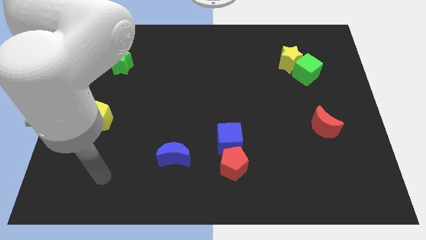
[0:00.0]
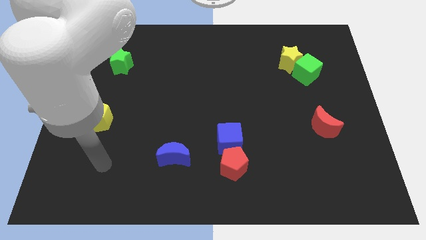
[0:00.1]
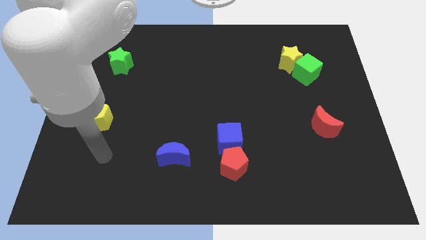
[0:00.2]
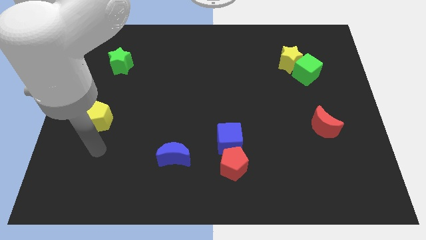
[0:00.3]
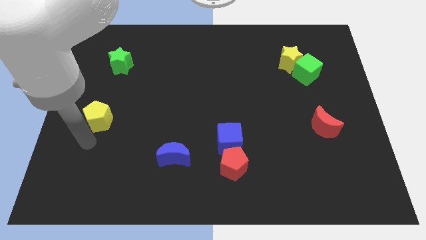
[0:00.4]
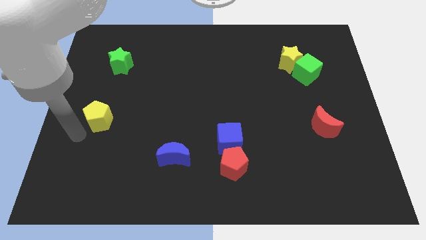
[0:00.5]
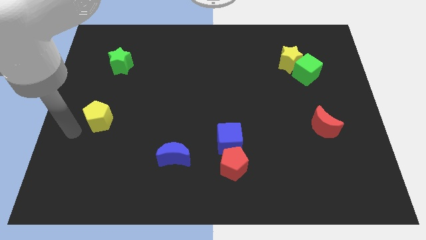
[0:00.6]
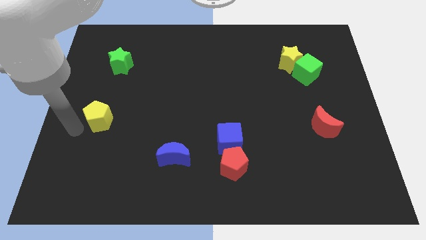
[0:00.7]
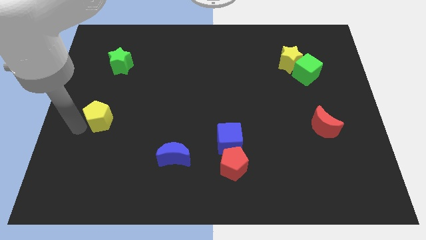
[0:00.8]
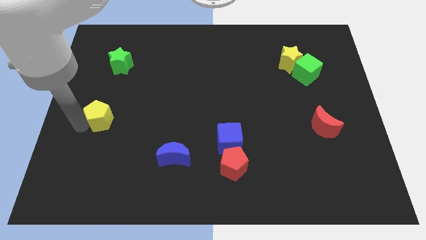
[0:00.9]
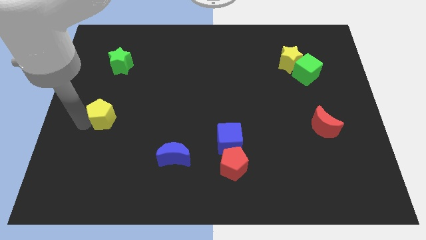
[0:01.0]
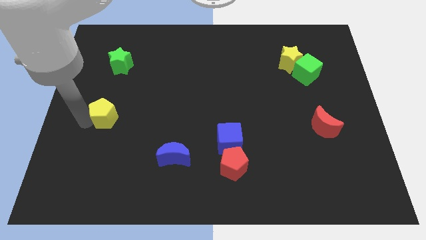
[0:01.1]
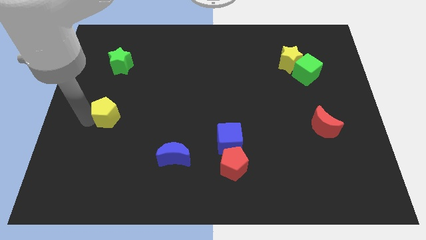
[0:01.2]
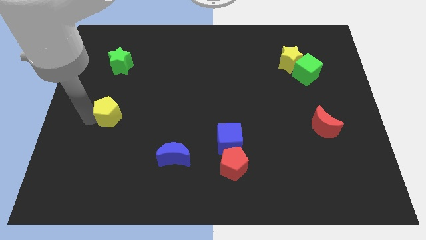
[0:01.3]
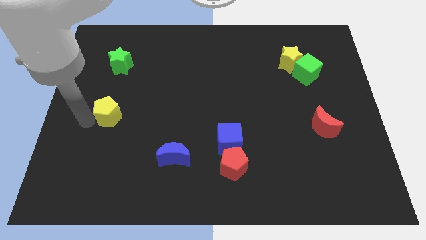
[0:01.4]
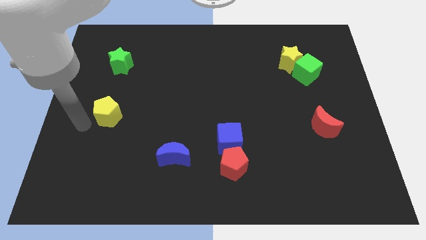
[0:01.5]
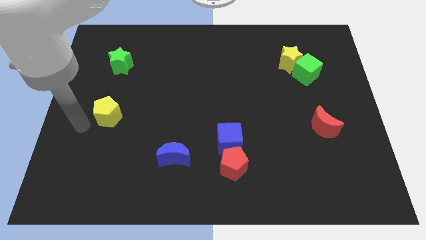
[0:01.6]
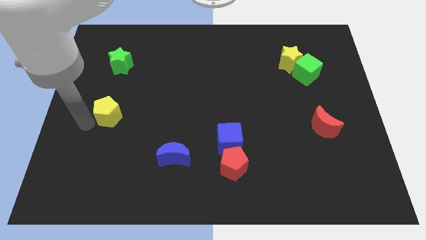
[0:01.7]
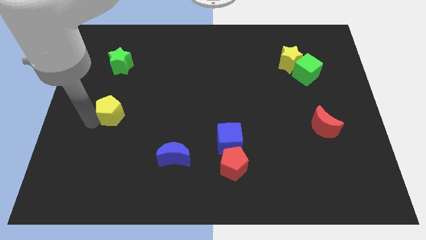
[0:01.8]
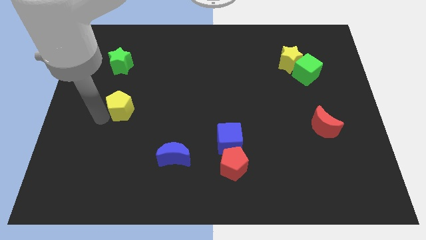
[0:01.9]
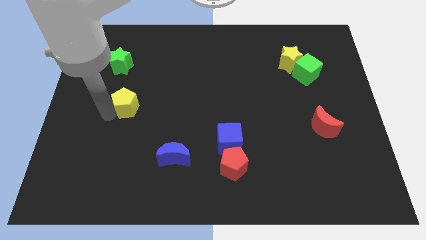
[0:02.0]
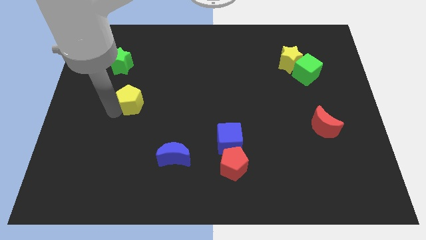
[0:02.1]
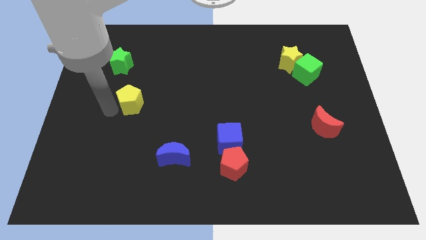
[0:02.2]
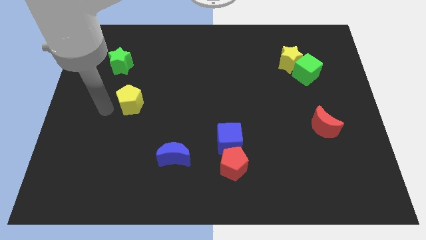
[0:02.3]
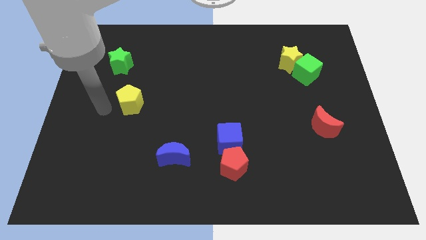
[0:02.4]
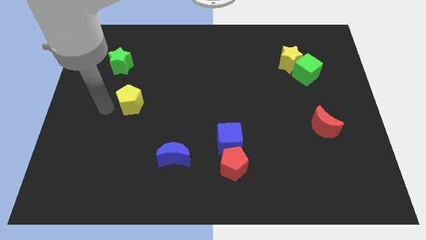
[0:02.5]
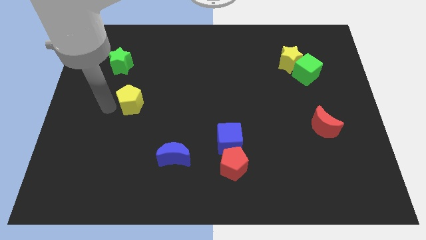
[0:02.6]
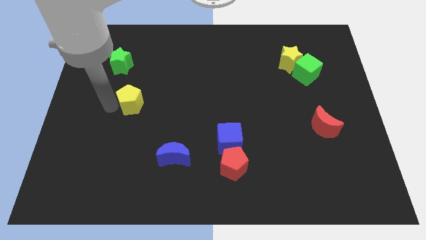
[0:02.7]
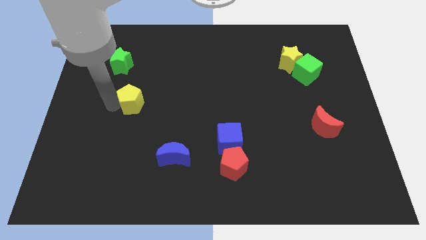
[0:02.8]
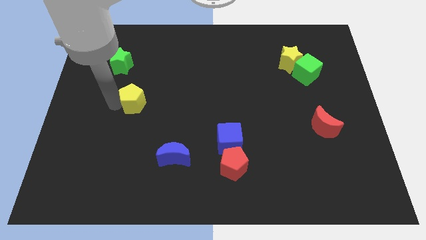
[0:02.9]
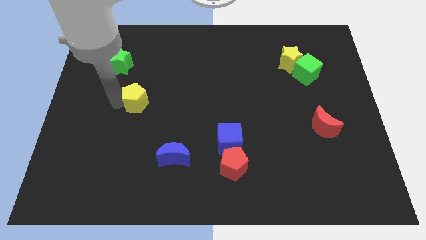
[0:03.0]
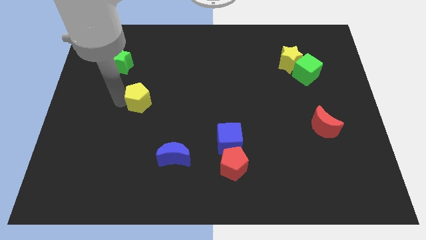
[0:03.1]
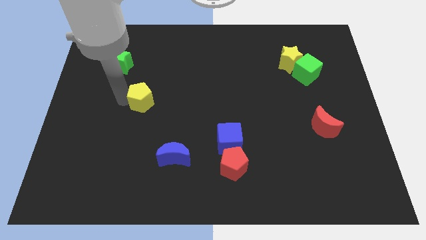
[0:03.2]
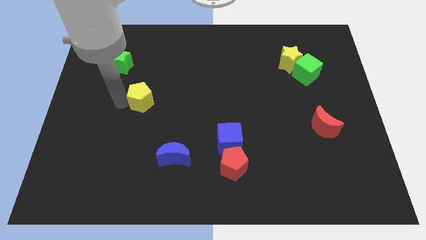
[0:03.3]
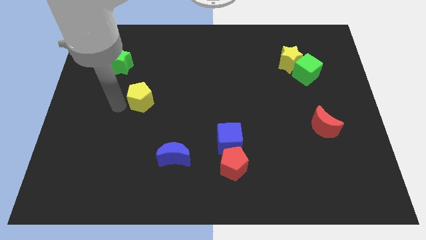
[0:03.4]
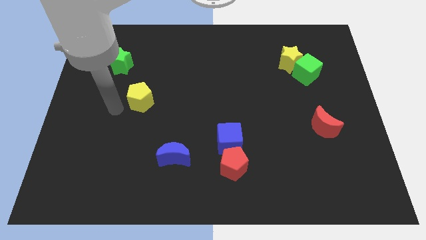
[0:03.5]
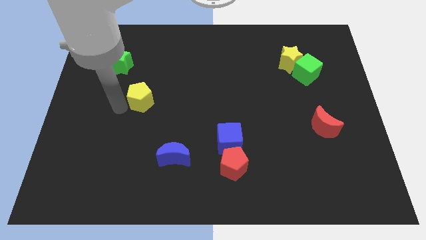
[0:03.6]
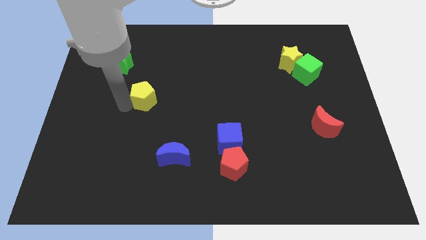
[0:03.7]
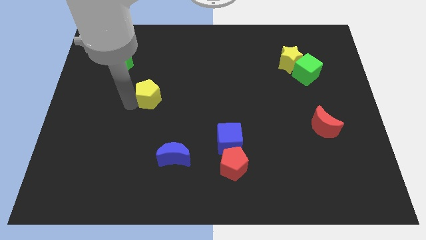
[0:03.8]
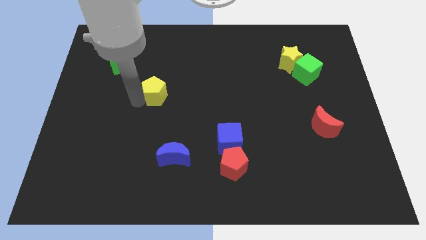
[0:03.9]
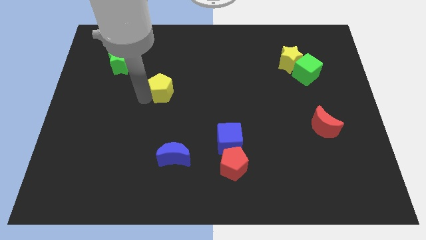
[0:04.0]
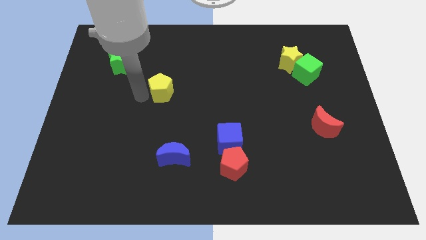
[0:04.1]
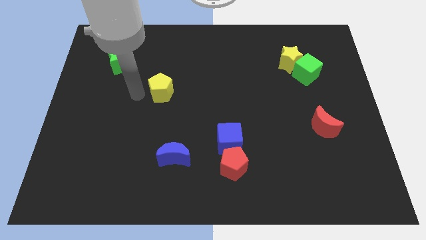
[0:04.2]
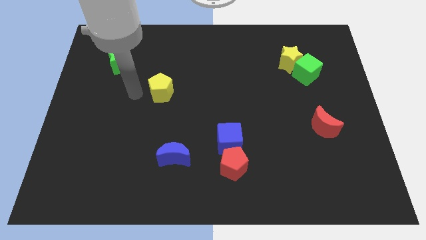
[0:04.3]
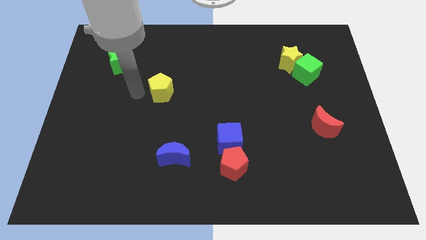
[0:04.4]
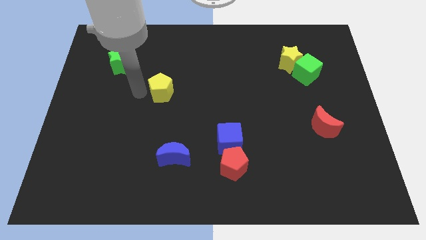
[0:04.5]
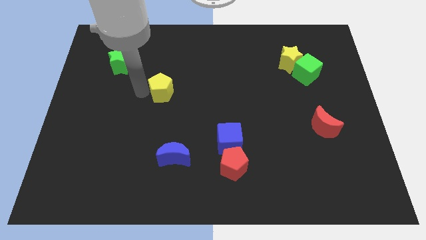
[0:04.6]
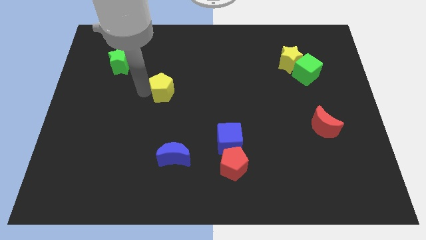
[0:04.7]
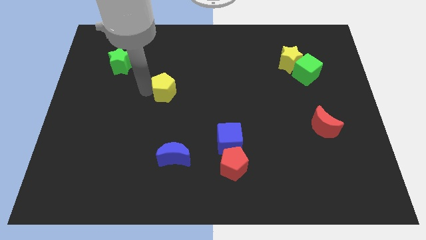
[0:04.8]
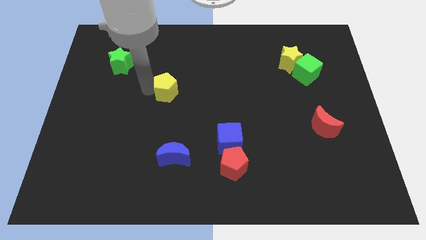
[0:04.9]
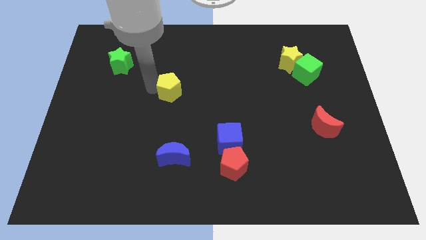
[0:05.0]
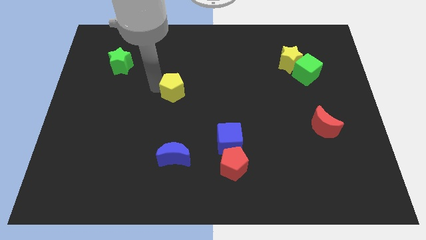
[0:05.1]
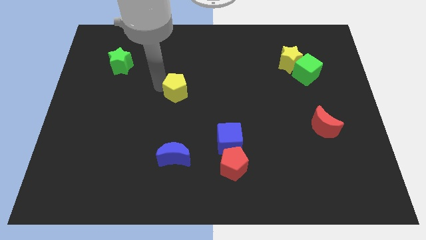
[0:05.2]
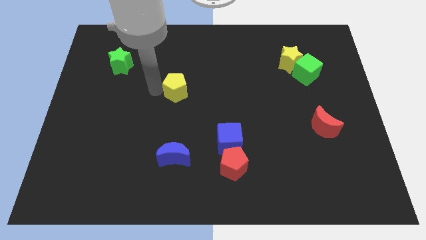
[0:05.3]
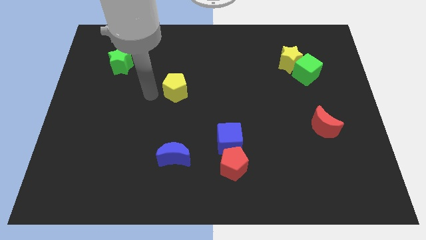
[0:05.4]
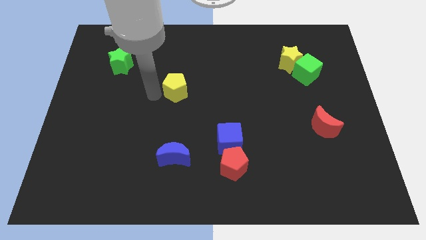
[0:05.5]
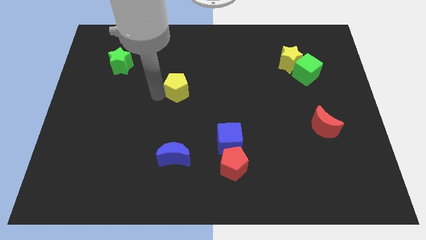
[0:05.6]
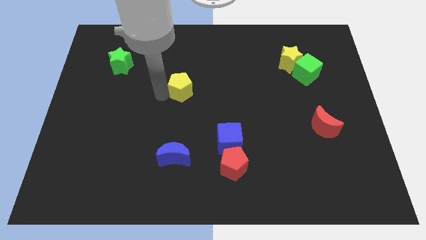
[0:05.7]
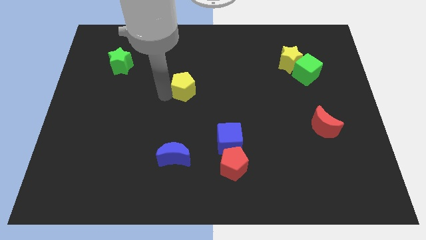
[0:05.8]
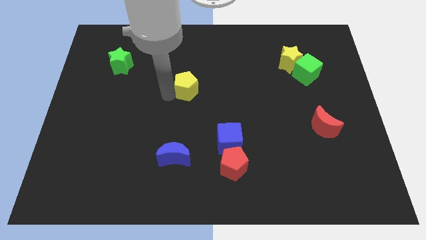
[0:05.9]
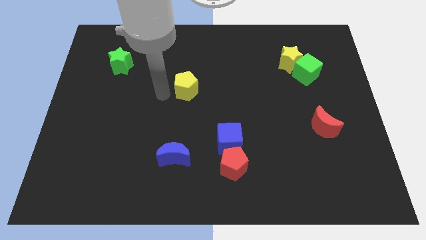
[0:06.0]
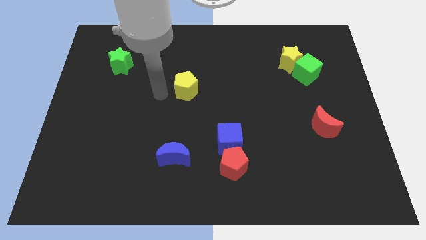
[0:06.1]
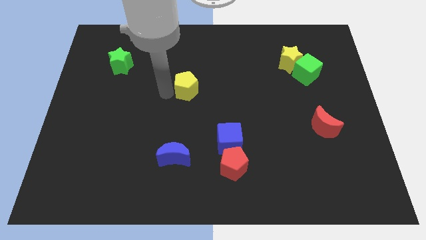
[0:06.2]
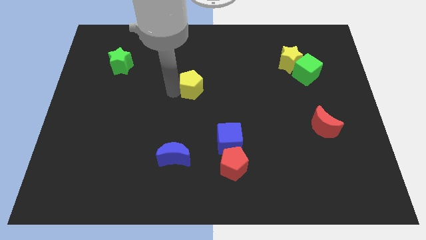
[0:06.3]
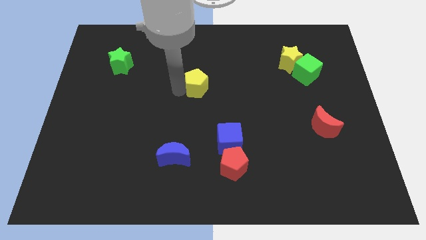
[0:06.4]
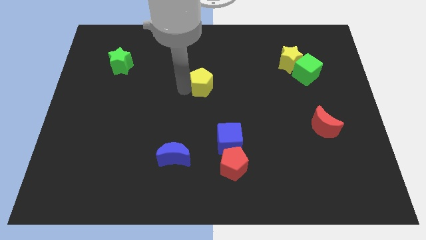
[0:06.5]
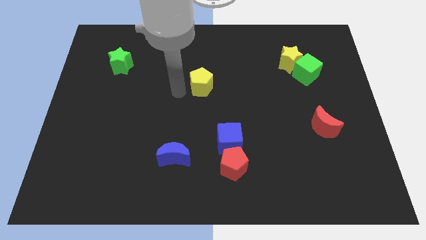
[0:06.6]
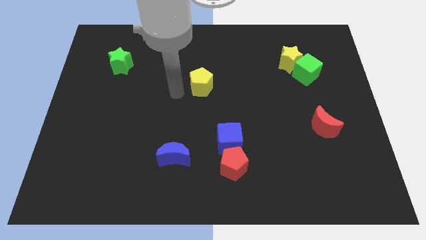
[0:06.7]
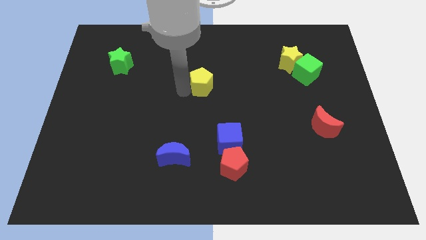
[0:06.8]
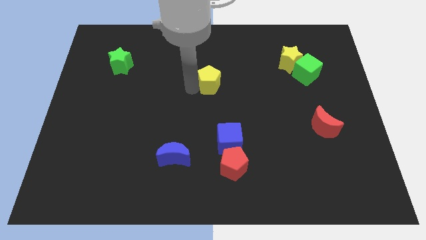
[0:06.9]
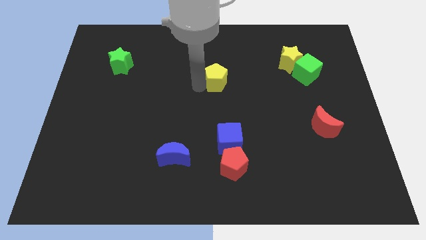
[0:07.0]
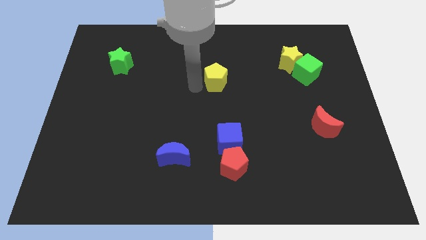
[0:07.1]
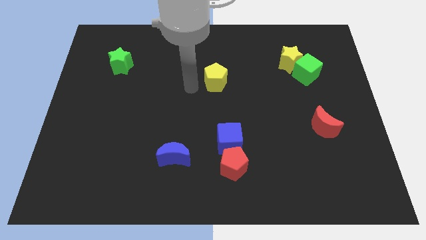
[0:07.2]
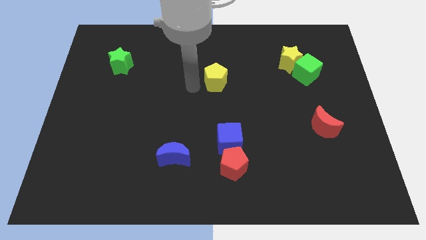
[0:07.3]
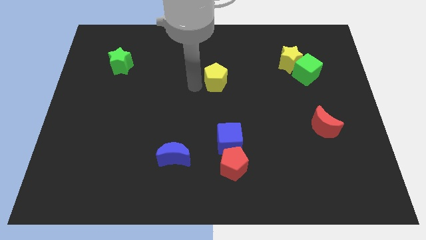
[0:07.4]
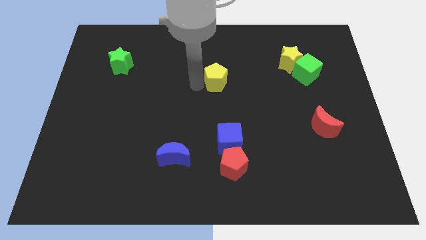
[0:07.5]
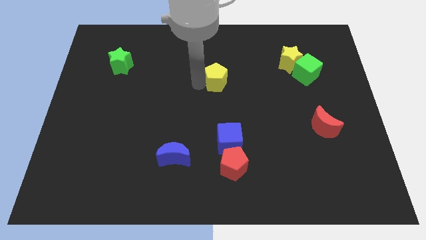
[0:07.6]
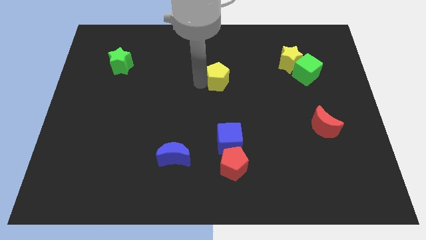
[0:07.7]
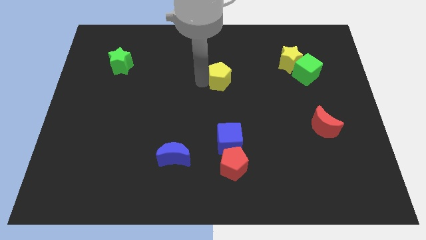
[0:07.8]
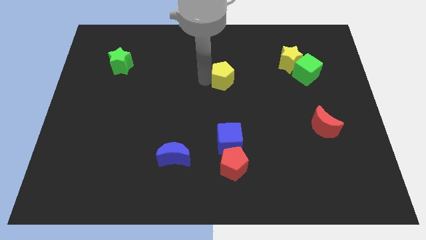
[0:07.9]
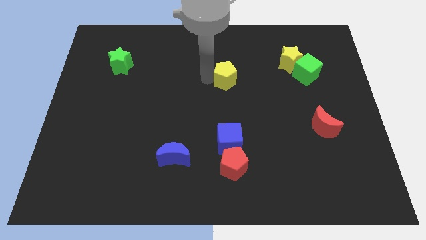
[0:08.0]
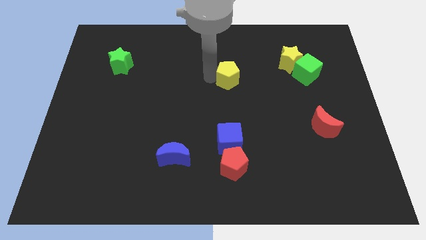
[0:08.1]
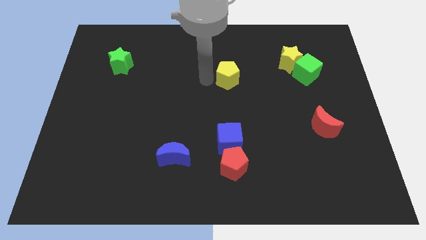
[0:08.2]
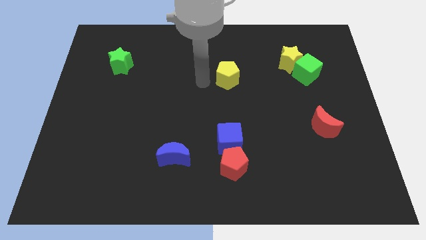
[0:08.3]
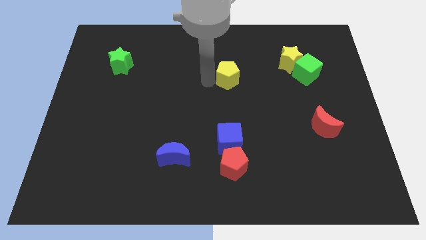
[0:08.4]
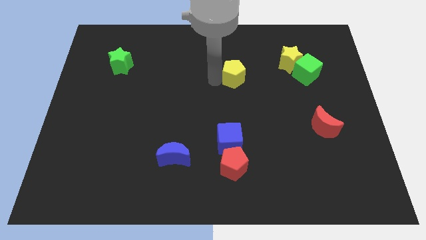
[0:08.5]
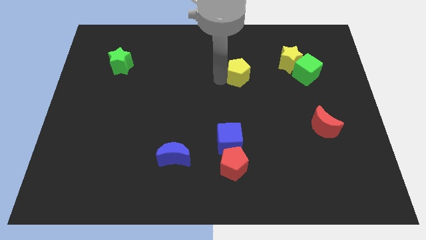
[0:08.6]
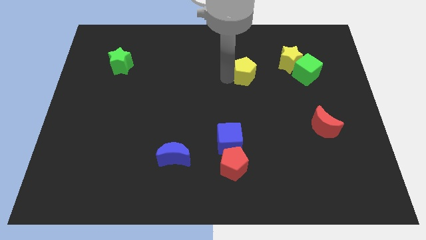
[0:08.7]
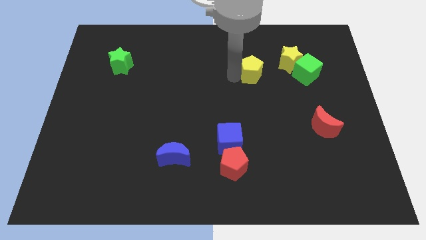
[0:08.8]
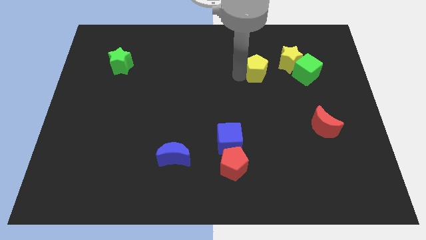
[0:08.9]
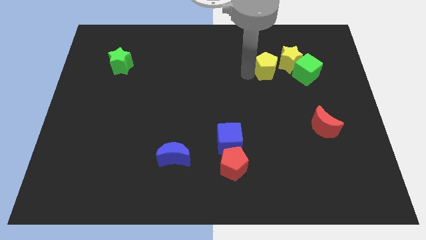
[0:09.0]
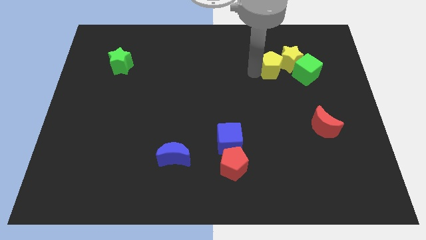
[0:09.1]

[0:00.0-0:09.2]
put the yellow pentagon to the yellow star
